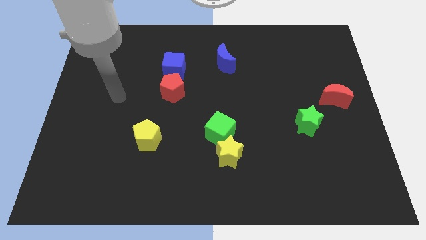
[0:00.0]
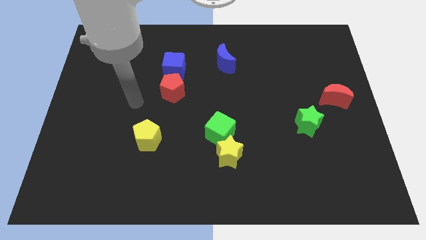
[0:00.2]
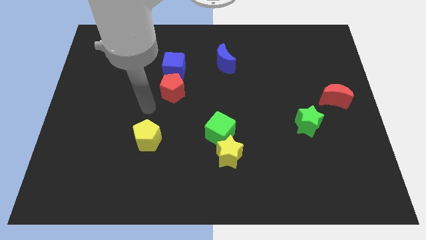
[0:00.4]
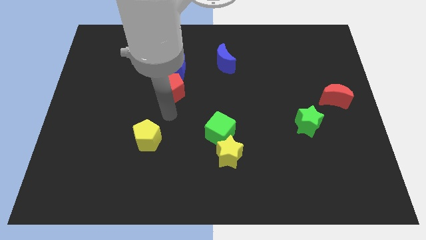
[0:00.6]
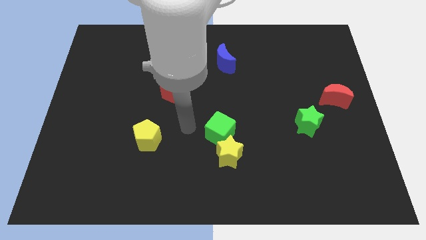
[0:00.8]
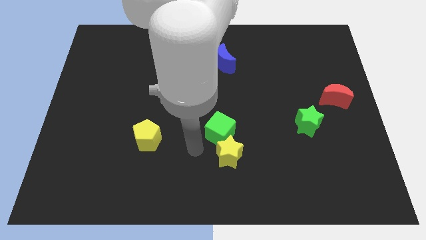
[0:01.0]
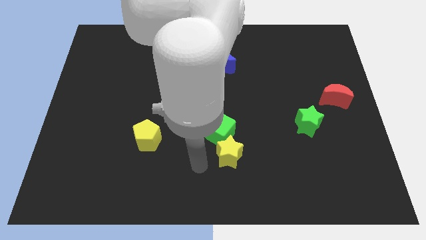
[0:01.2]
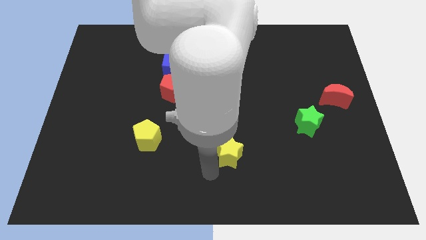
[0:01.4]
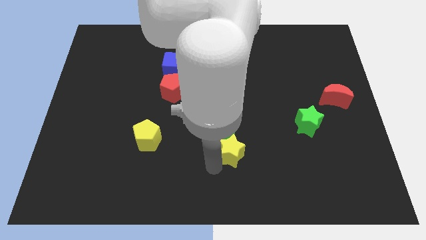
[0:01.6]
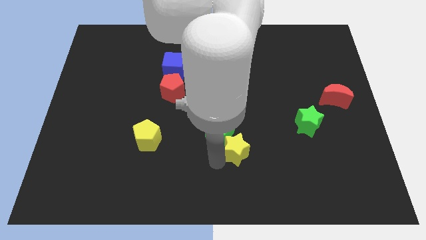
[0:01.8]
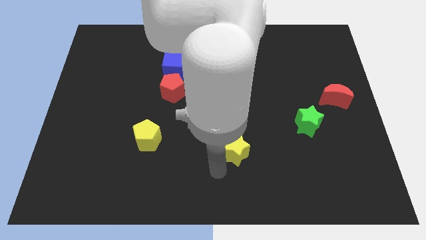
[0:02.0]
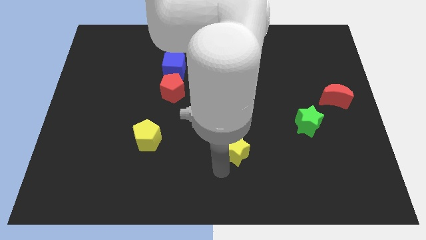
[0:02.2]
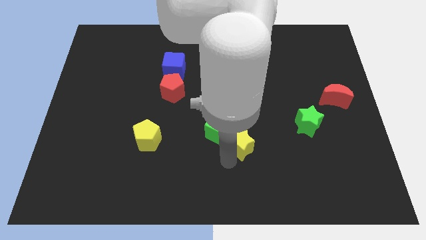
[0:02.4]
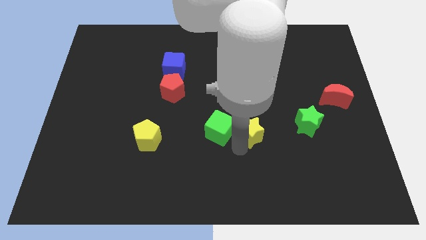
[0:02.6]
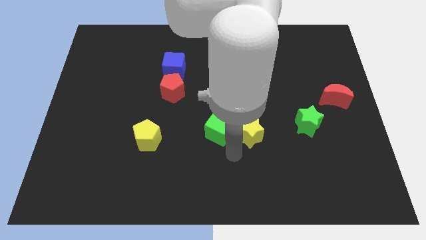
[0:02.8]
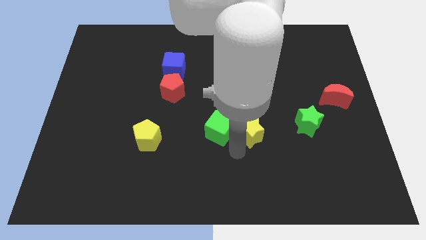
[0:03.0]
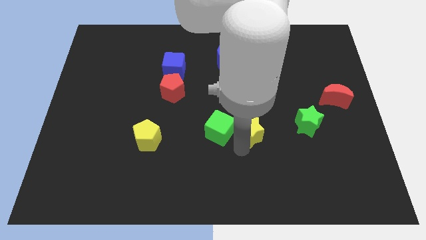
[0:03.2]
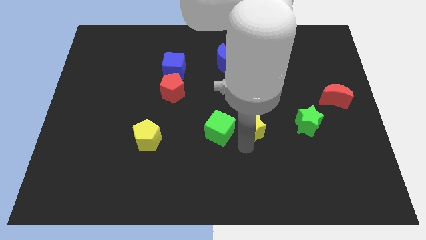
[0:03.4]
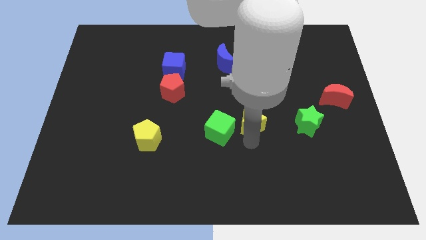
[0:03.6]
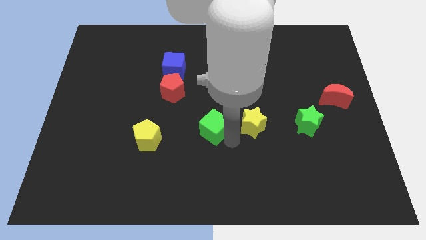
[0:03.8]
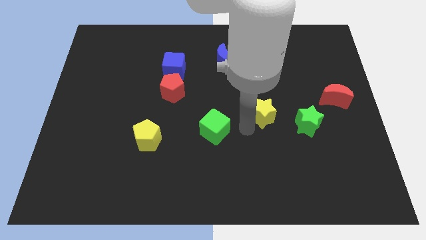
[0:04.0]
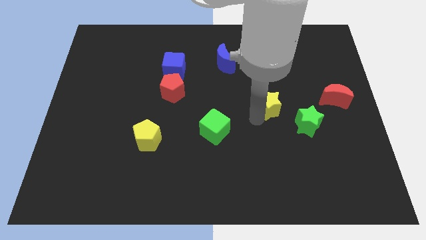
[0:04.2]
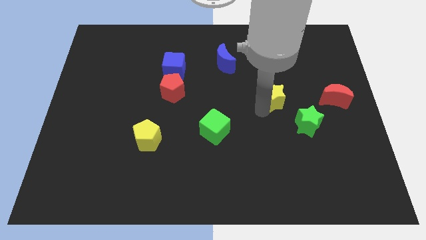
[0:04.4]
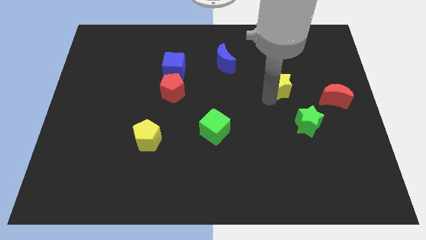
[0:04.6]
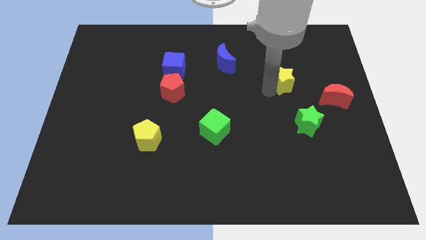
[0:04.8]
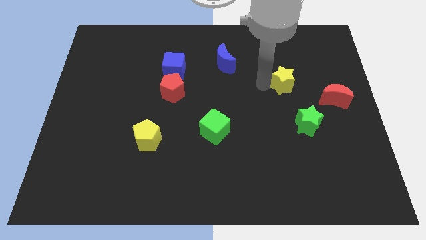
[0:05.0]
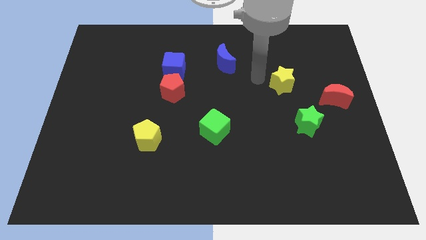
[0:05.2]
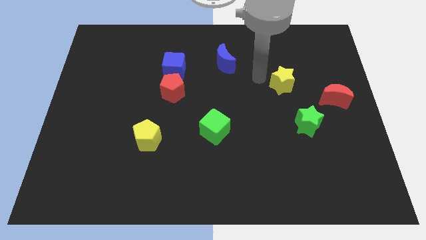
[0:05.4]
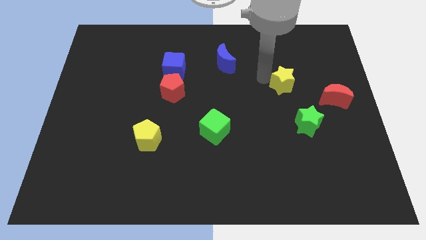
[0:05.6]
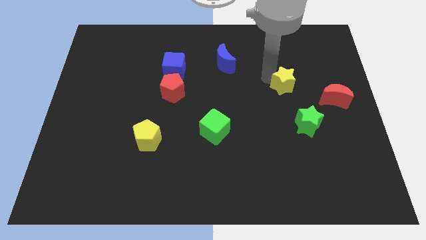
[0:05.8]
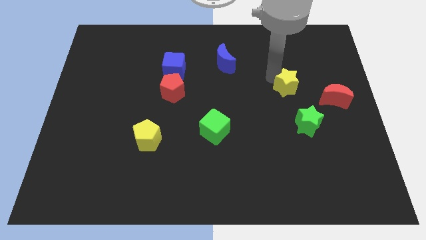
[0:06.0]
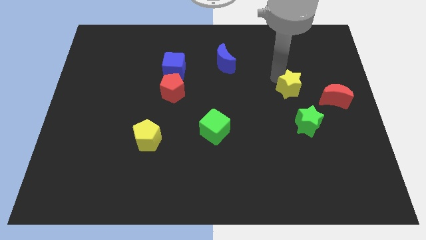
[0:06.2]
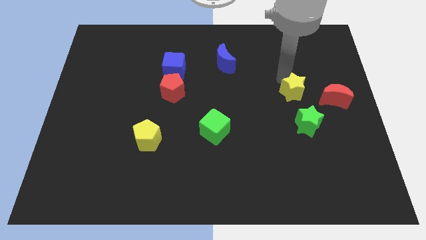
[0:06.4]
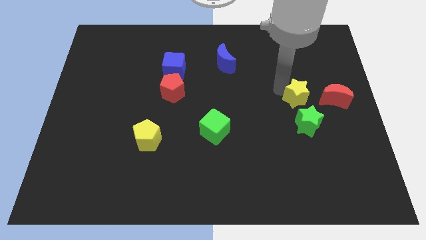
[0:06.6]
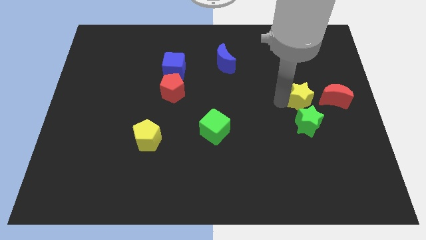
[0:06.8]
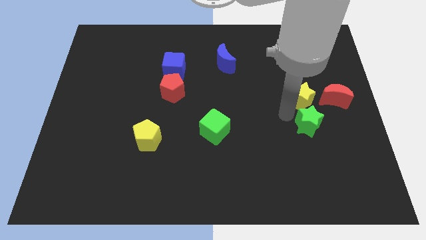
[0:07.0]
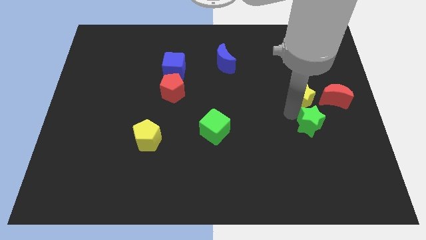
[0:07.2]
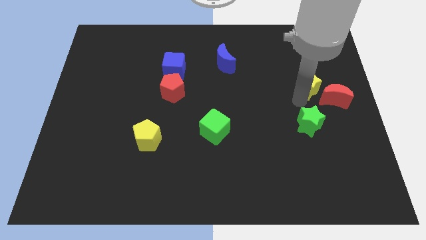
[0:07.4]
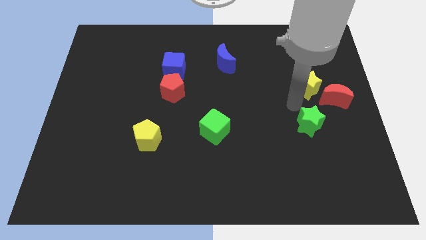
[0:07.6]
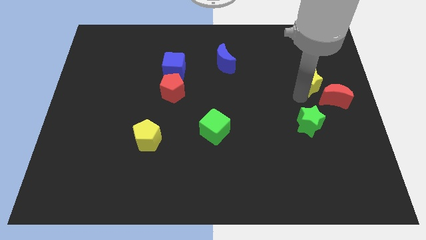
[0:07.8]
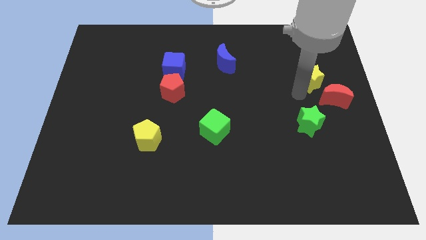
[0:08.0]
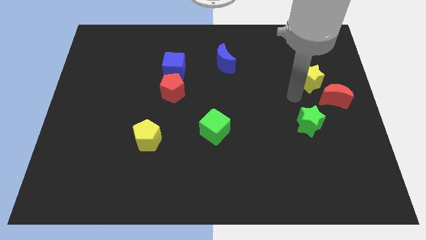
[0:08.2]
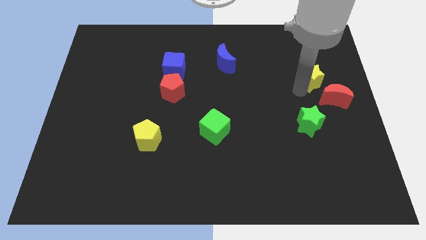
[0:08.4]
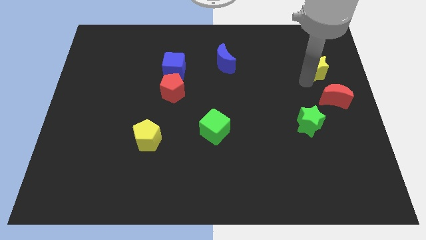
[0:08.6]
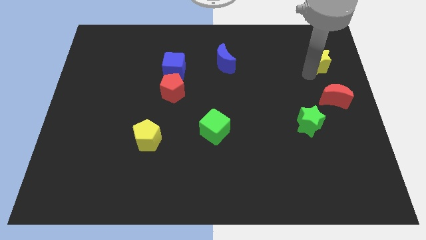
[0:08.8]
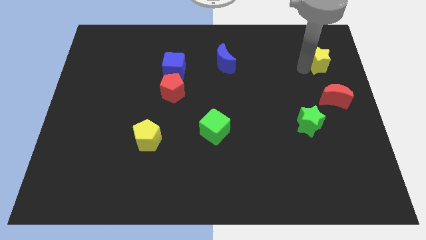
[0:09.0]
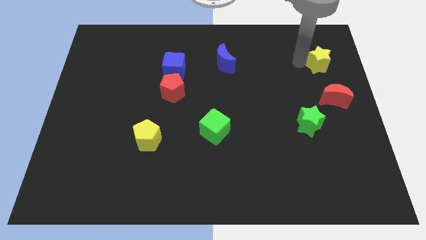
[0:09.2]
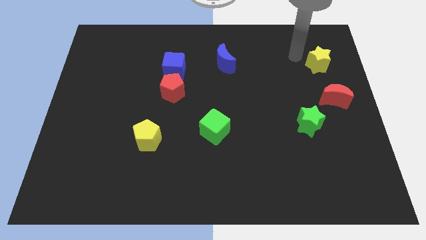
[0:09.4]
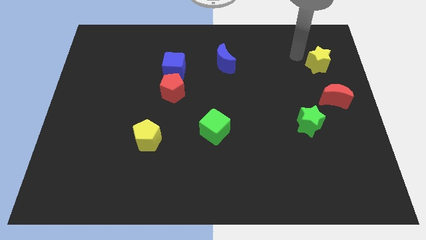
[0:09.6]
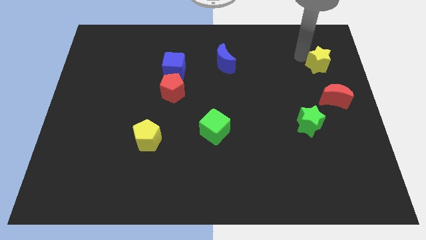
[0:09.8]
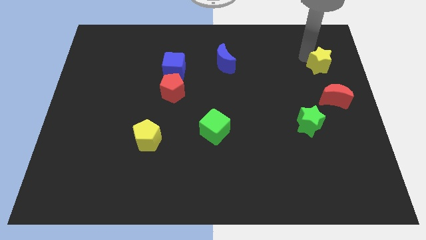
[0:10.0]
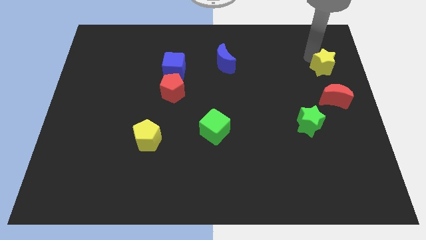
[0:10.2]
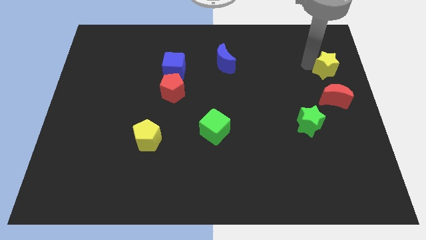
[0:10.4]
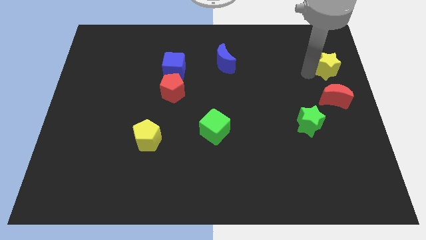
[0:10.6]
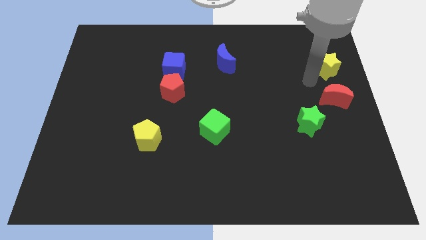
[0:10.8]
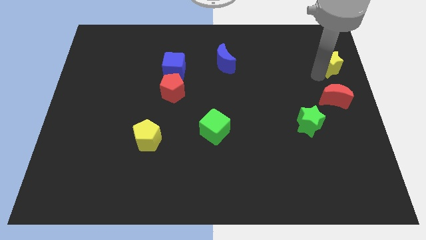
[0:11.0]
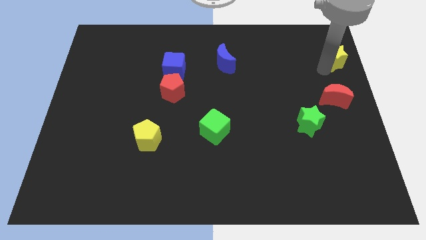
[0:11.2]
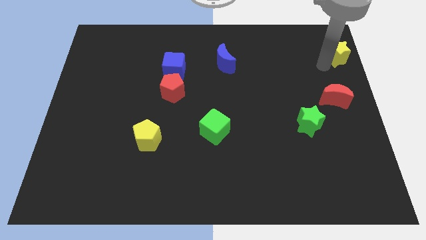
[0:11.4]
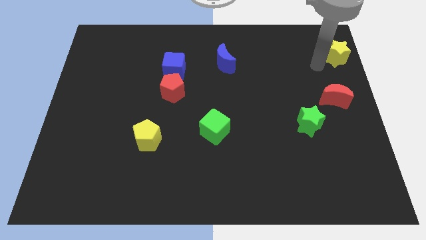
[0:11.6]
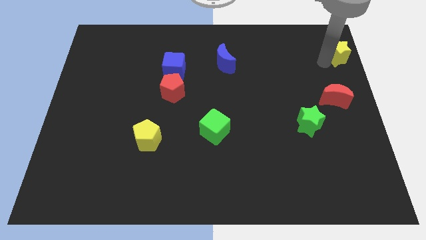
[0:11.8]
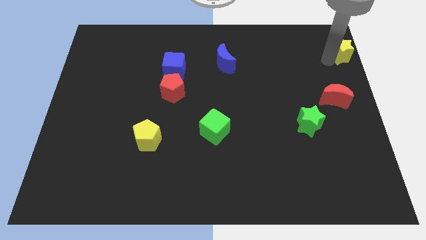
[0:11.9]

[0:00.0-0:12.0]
slide the yellow star to the top right
